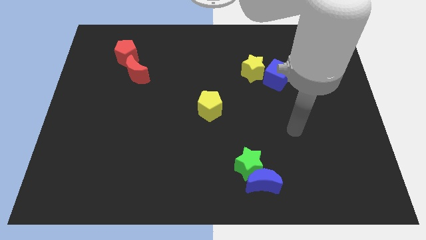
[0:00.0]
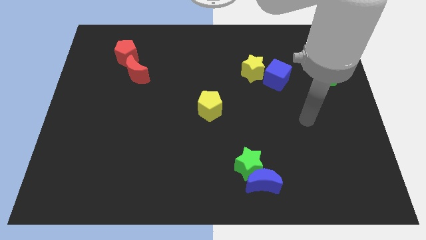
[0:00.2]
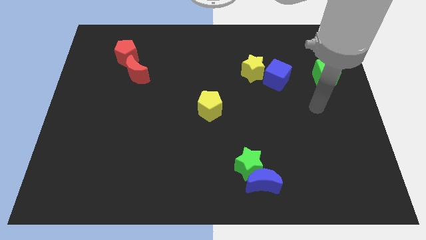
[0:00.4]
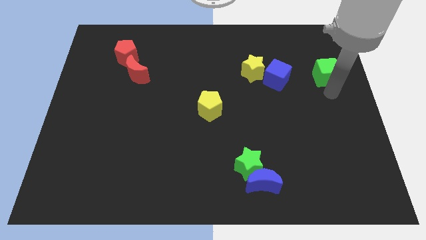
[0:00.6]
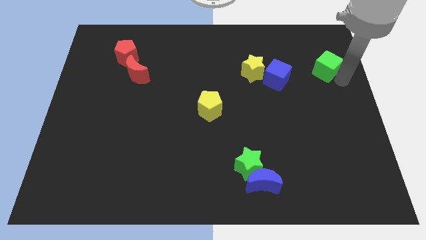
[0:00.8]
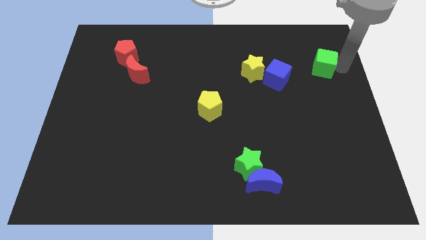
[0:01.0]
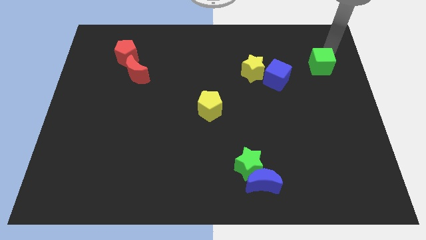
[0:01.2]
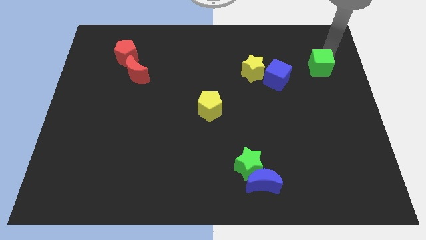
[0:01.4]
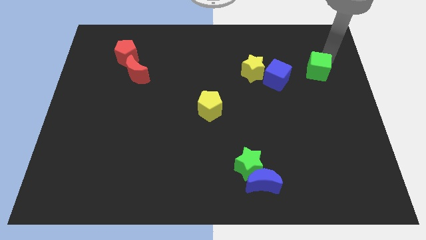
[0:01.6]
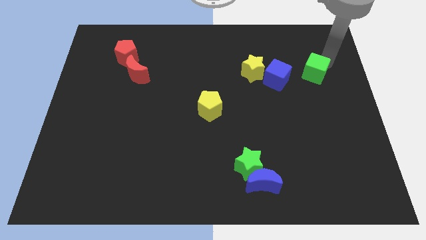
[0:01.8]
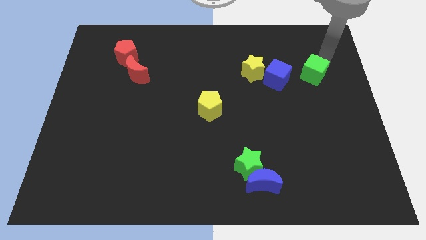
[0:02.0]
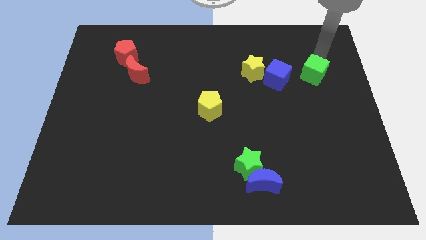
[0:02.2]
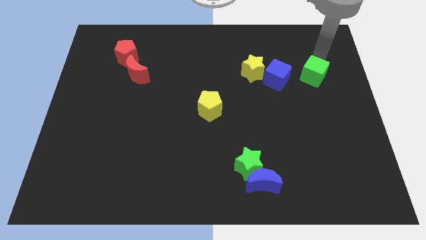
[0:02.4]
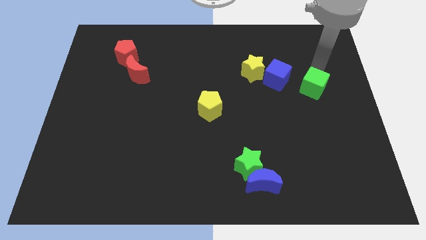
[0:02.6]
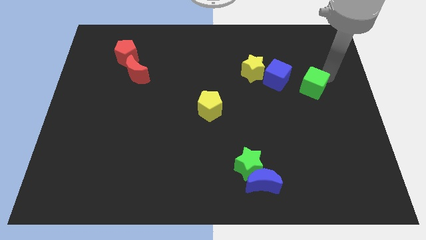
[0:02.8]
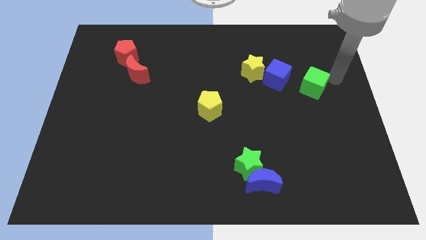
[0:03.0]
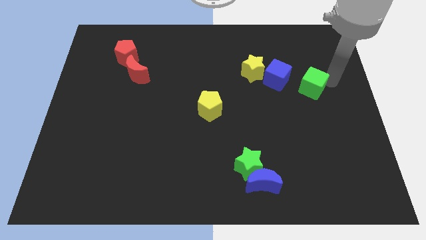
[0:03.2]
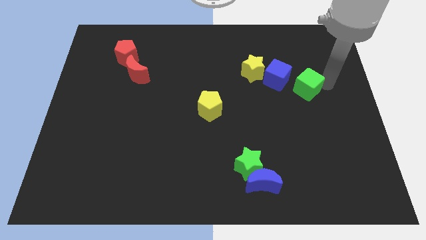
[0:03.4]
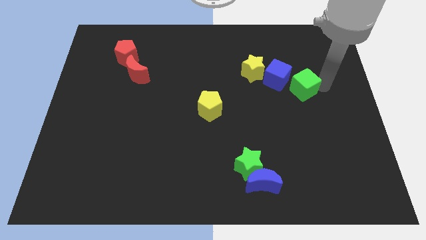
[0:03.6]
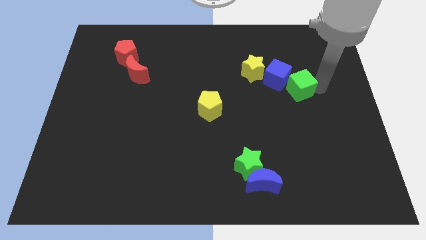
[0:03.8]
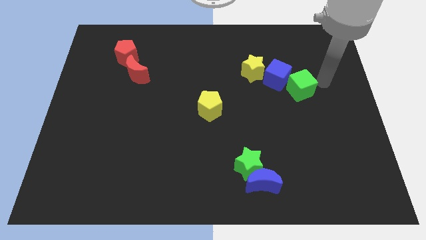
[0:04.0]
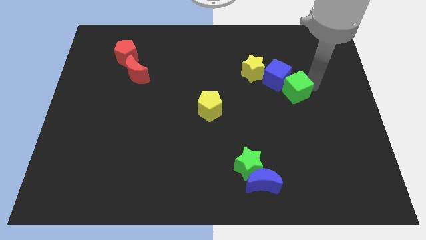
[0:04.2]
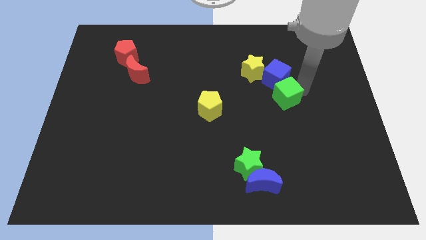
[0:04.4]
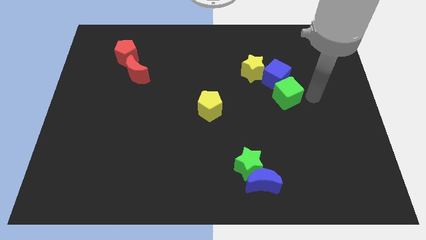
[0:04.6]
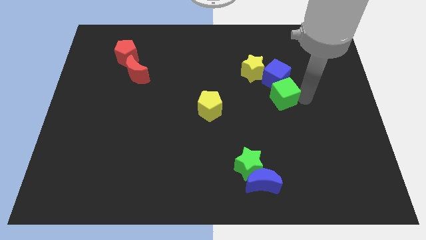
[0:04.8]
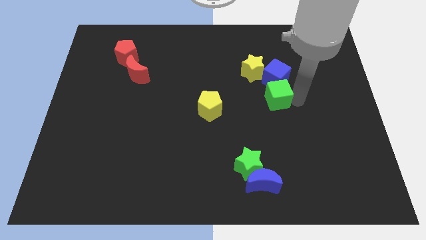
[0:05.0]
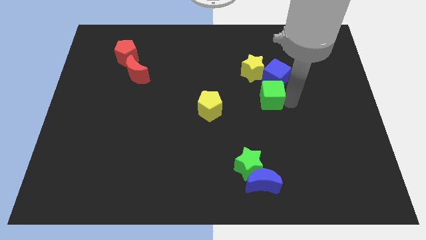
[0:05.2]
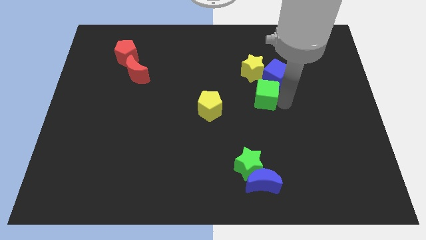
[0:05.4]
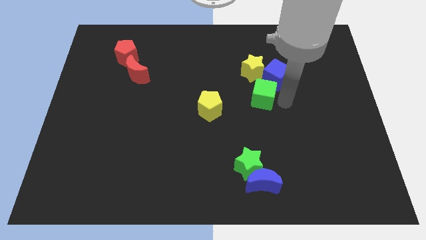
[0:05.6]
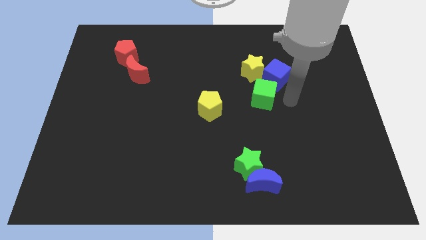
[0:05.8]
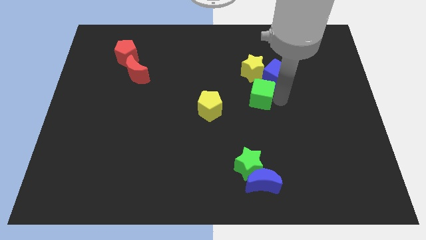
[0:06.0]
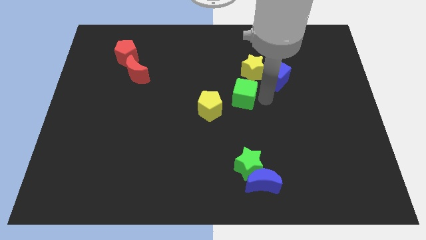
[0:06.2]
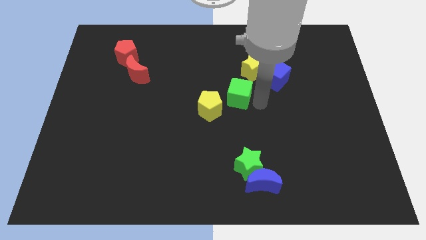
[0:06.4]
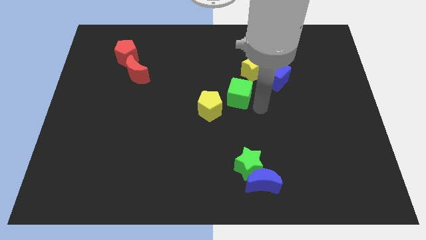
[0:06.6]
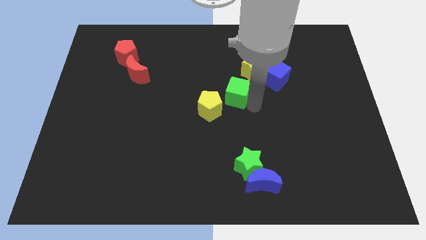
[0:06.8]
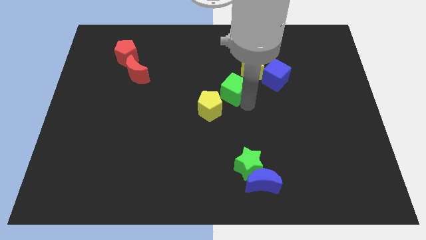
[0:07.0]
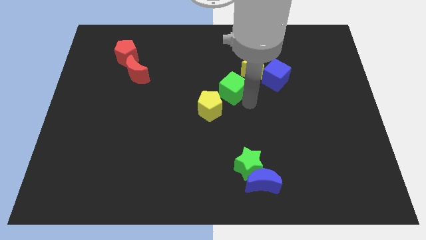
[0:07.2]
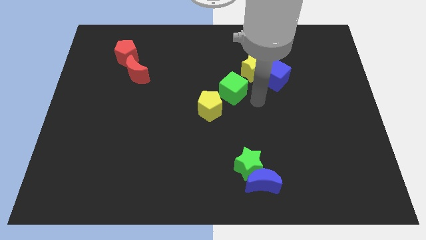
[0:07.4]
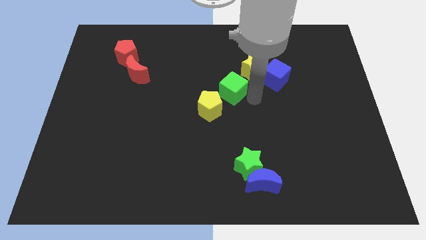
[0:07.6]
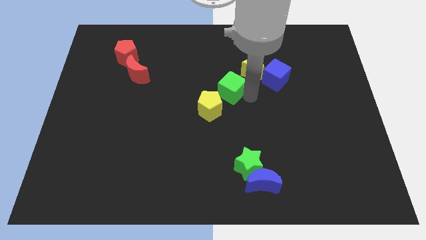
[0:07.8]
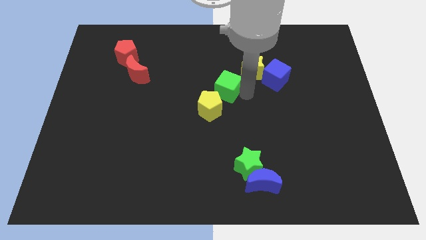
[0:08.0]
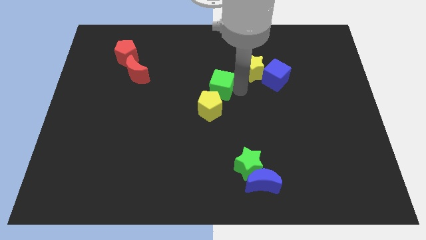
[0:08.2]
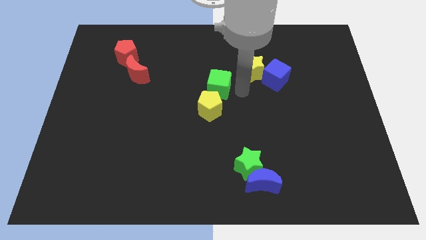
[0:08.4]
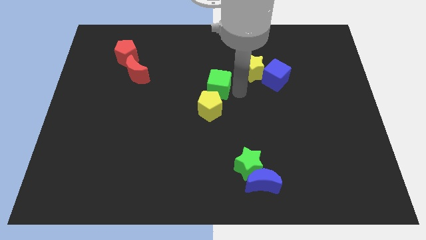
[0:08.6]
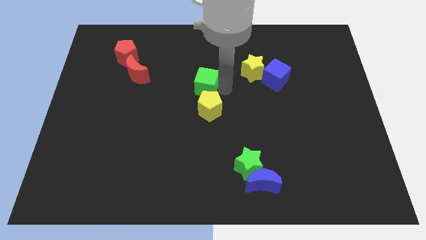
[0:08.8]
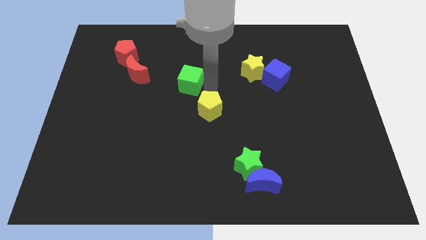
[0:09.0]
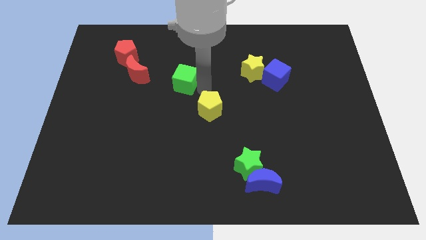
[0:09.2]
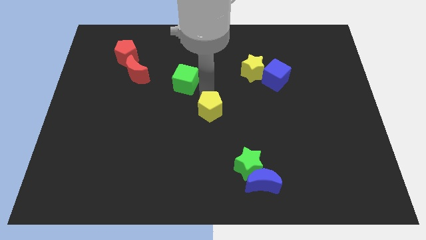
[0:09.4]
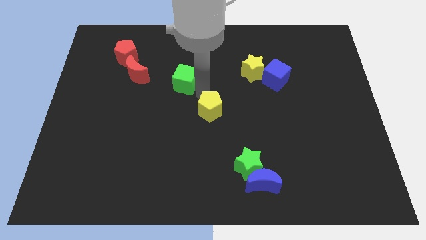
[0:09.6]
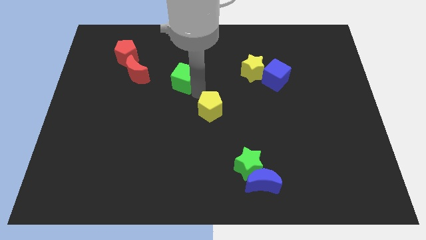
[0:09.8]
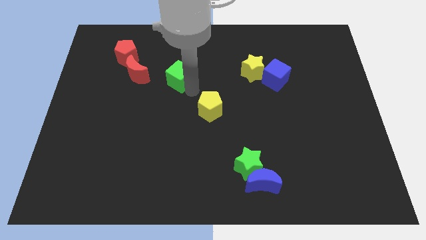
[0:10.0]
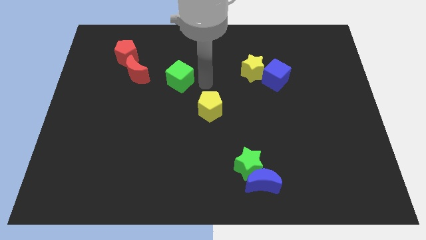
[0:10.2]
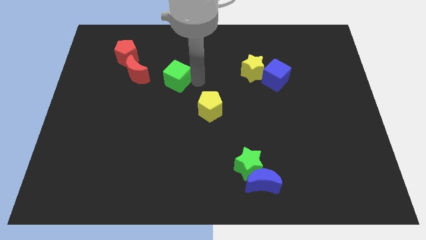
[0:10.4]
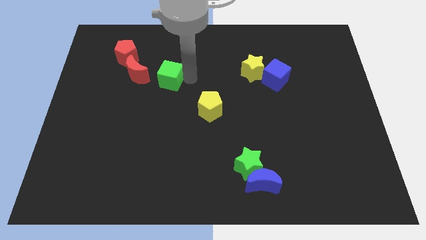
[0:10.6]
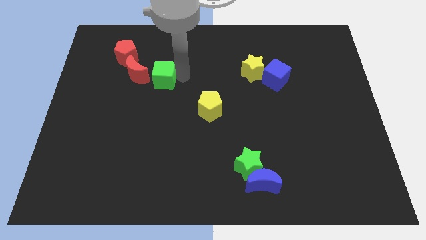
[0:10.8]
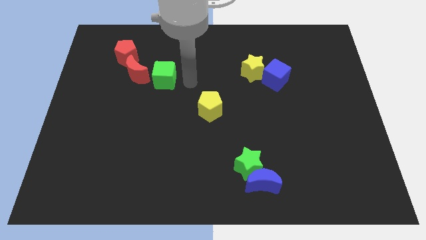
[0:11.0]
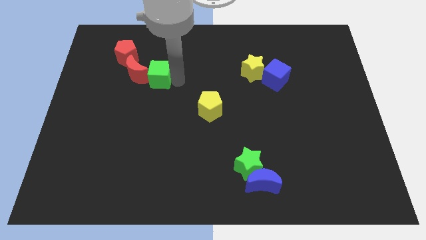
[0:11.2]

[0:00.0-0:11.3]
push the green cube next to the red moon

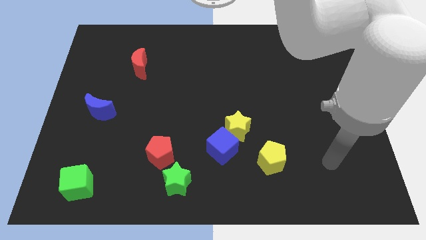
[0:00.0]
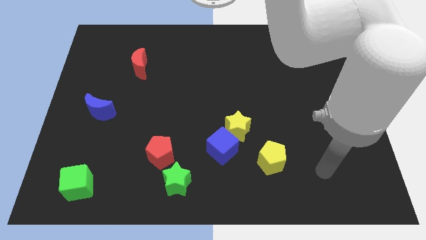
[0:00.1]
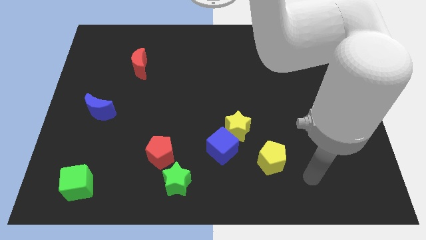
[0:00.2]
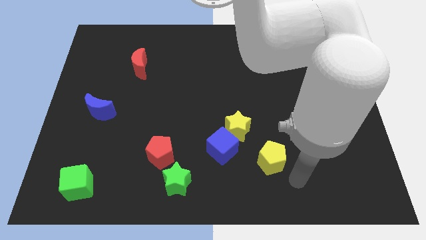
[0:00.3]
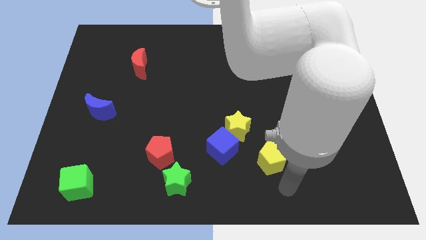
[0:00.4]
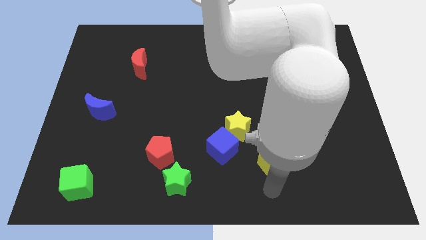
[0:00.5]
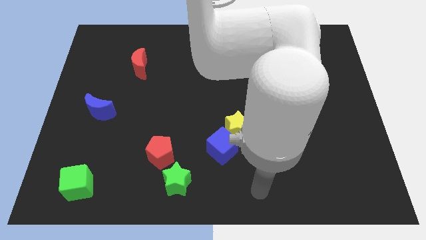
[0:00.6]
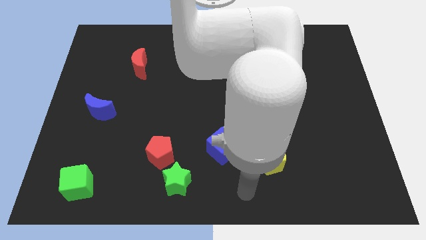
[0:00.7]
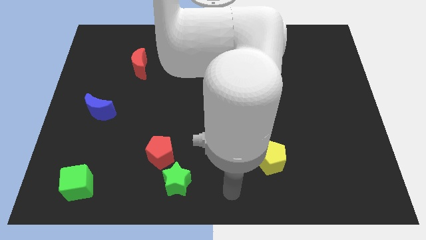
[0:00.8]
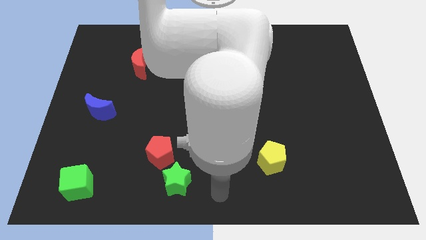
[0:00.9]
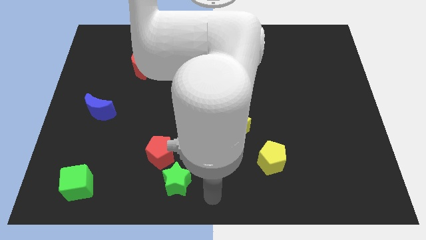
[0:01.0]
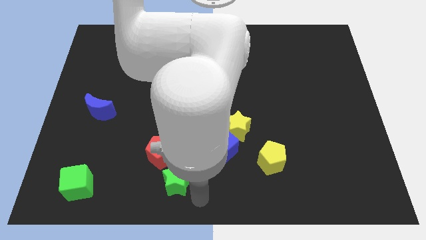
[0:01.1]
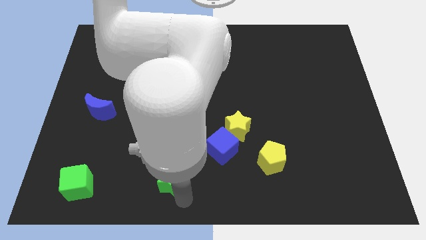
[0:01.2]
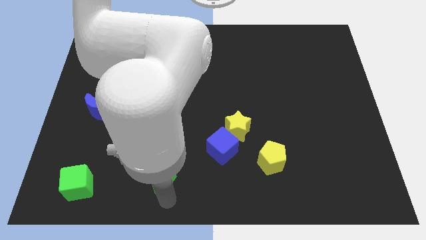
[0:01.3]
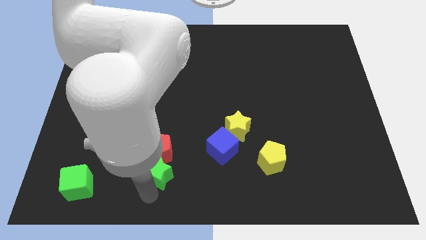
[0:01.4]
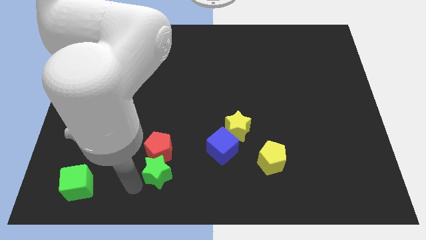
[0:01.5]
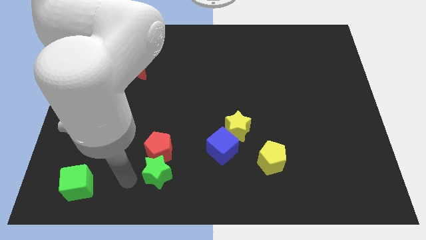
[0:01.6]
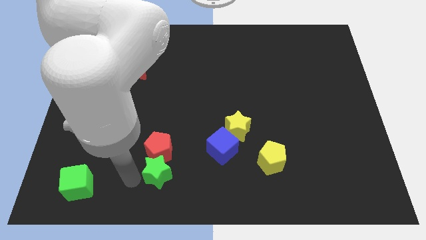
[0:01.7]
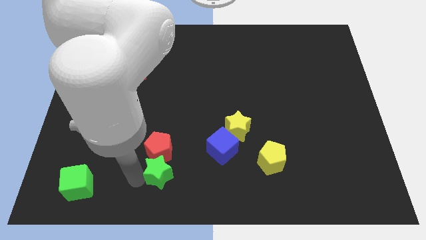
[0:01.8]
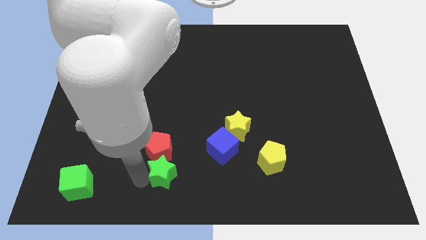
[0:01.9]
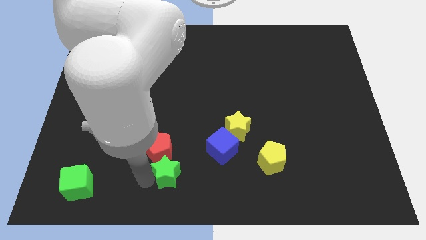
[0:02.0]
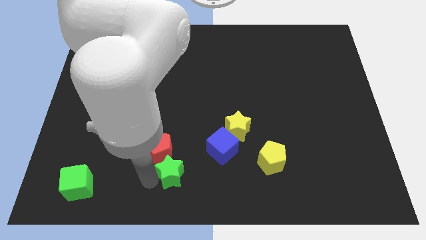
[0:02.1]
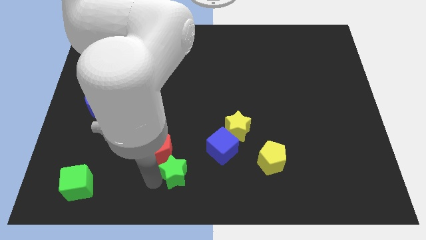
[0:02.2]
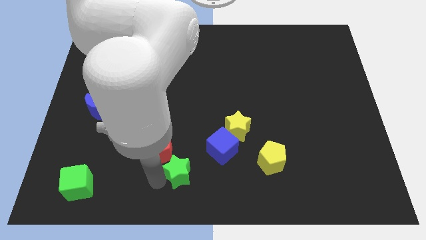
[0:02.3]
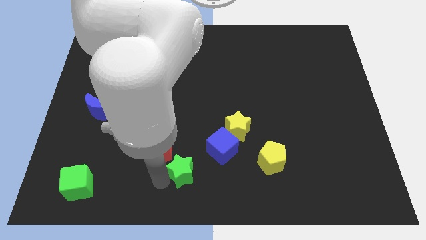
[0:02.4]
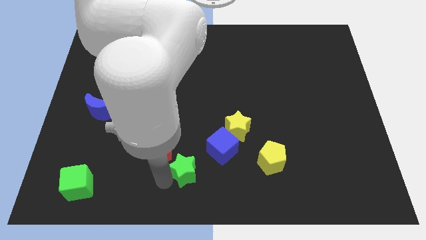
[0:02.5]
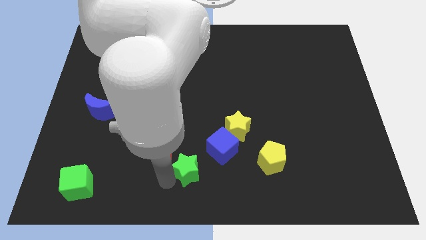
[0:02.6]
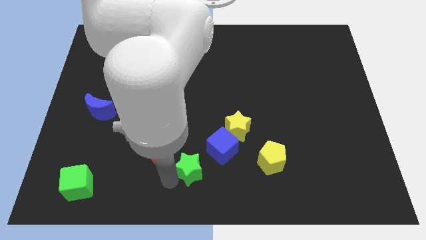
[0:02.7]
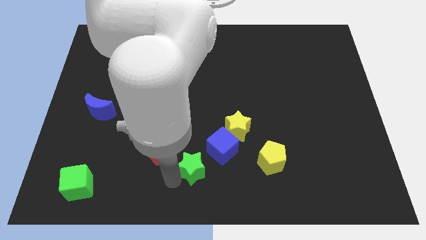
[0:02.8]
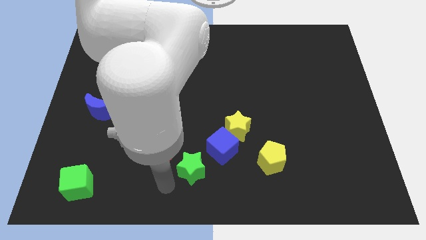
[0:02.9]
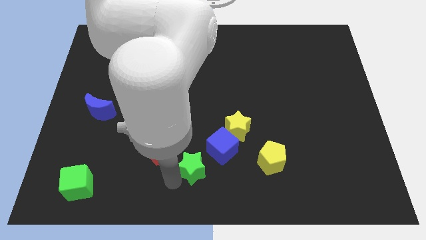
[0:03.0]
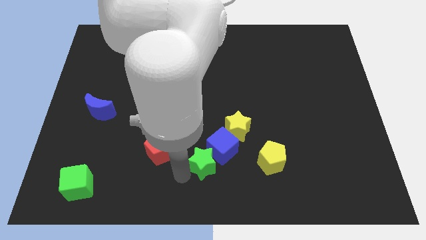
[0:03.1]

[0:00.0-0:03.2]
put the green star next to the blue cube
